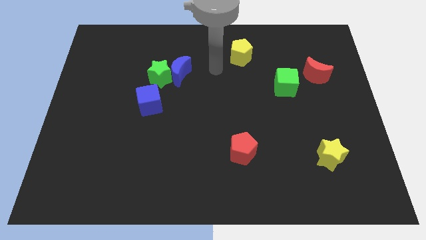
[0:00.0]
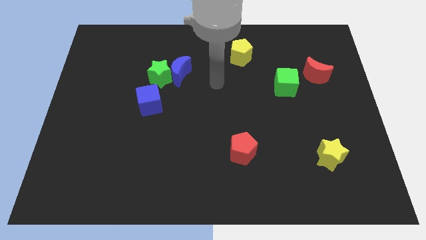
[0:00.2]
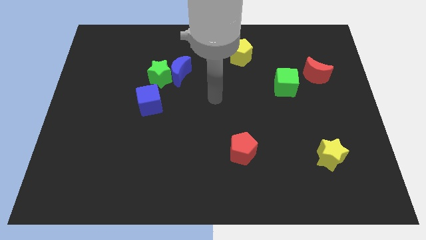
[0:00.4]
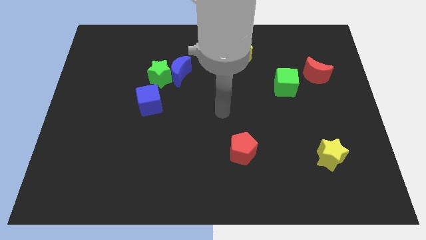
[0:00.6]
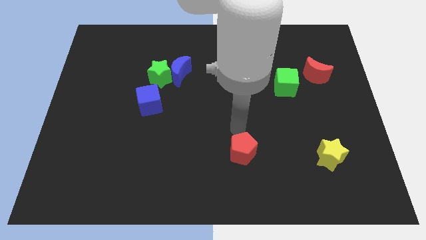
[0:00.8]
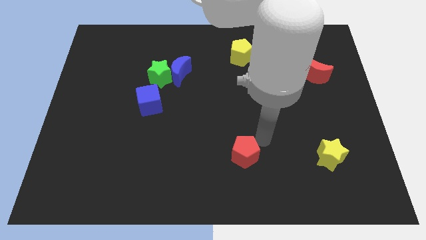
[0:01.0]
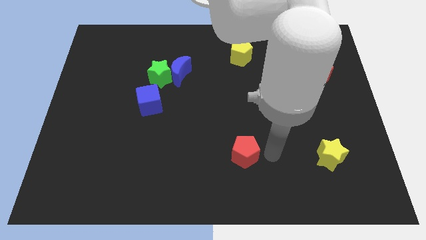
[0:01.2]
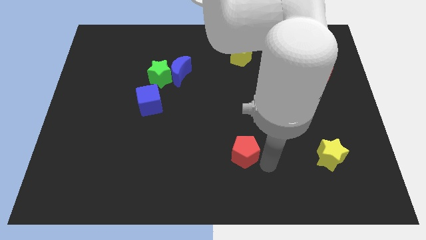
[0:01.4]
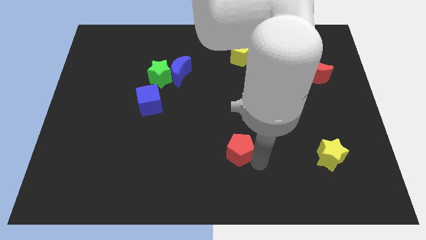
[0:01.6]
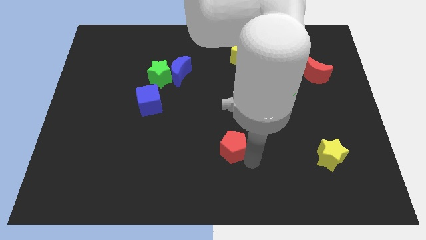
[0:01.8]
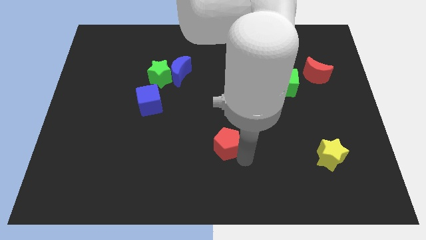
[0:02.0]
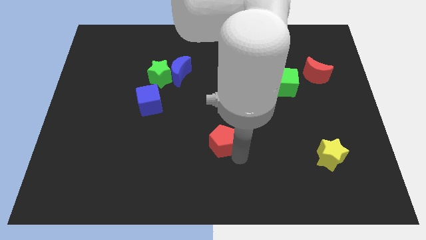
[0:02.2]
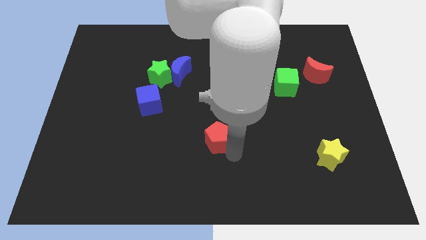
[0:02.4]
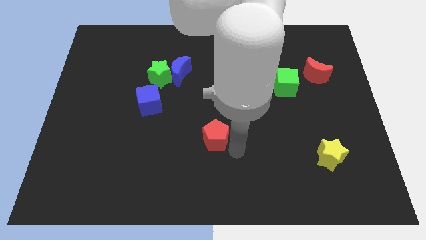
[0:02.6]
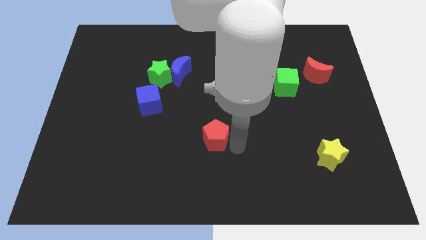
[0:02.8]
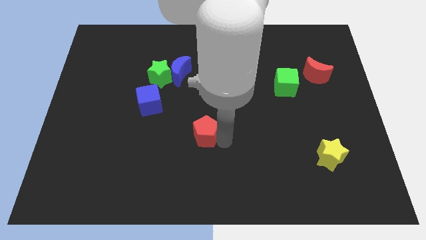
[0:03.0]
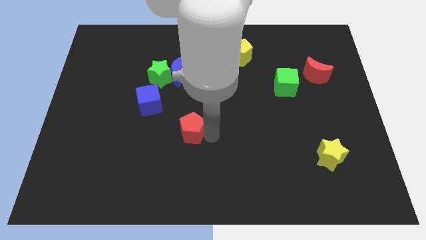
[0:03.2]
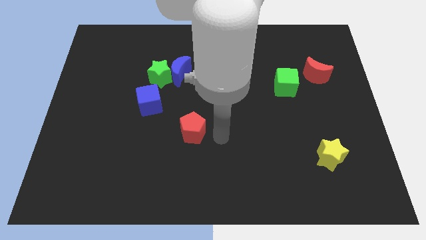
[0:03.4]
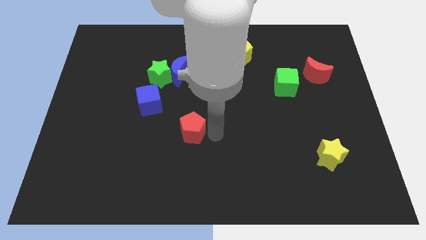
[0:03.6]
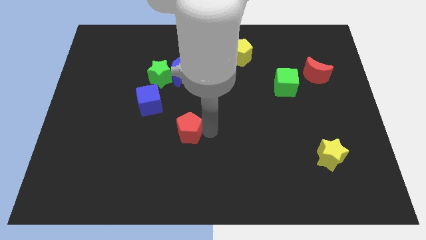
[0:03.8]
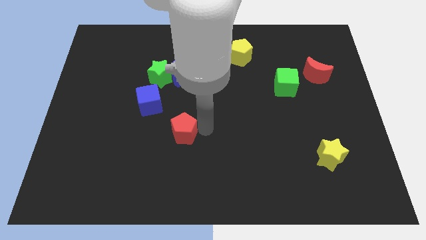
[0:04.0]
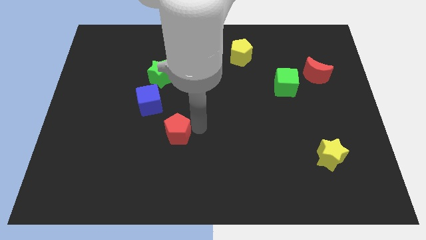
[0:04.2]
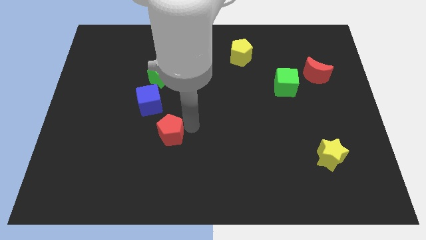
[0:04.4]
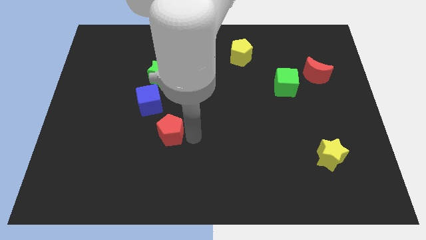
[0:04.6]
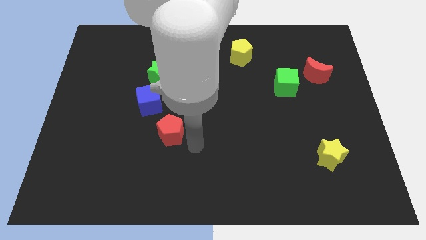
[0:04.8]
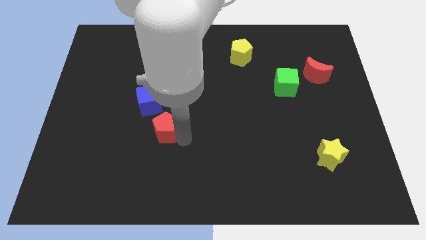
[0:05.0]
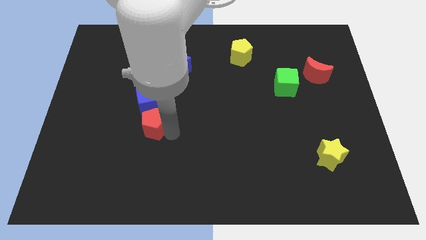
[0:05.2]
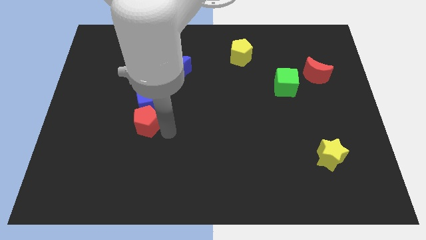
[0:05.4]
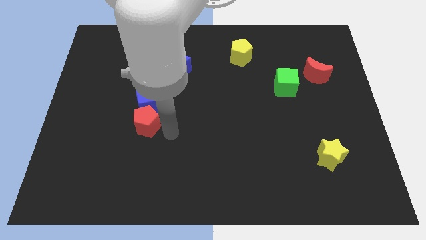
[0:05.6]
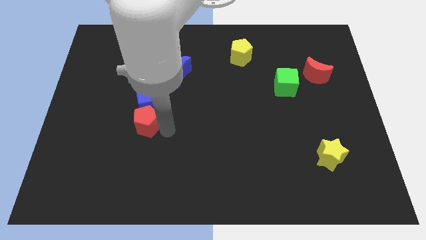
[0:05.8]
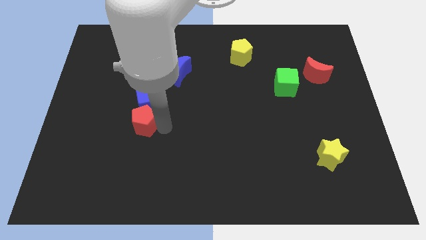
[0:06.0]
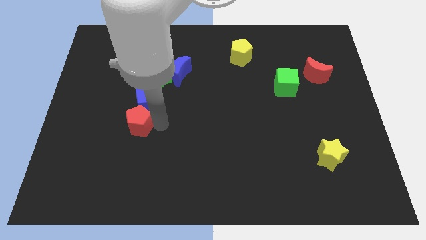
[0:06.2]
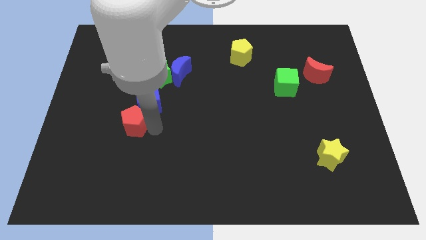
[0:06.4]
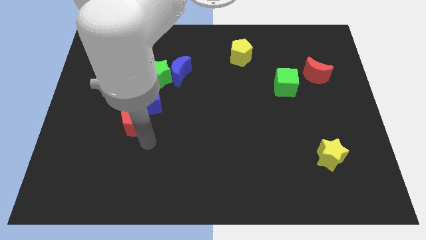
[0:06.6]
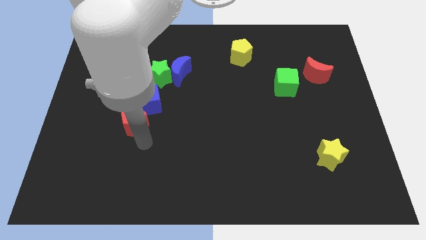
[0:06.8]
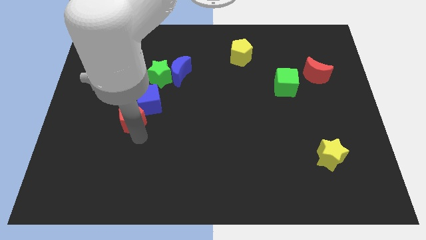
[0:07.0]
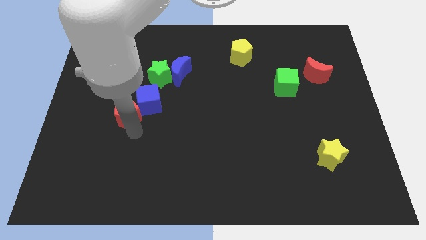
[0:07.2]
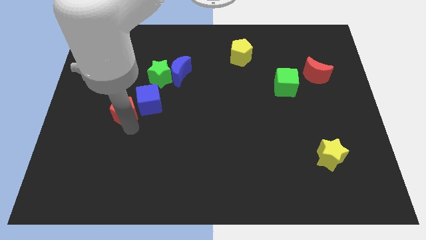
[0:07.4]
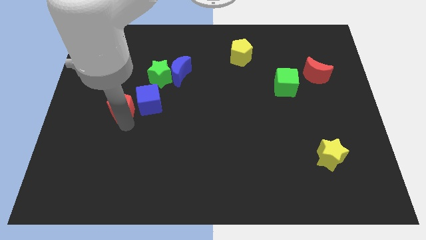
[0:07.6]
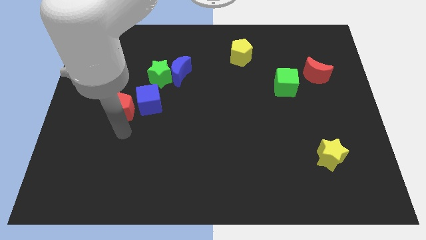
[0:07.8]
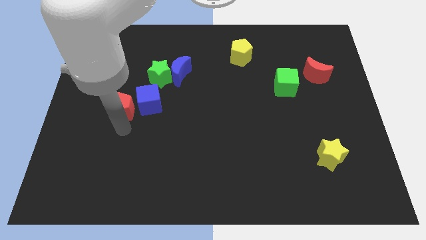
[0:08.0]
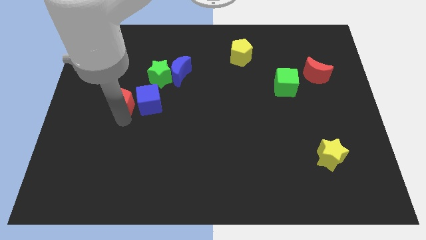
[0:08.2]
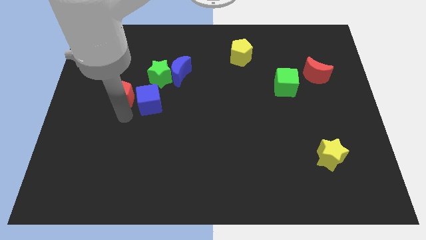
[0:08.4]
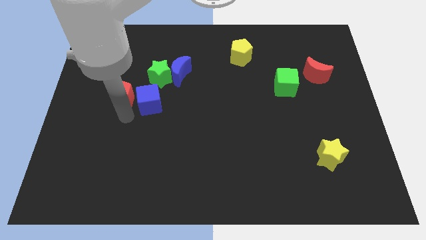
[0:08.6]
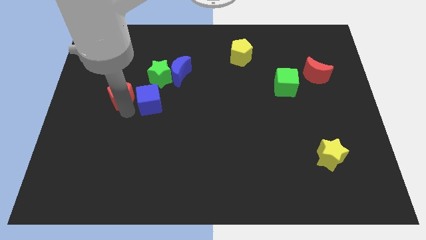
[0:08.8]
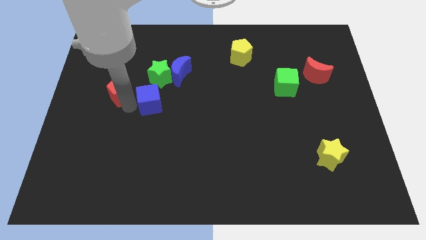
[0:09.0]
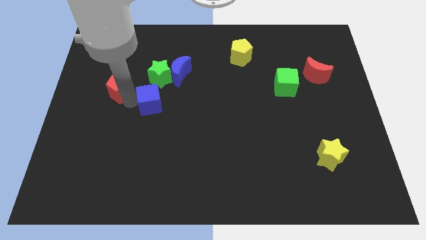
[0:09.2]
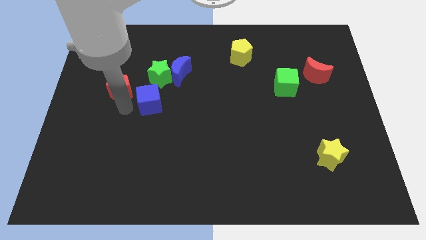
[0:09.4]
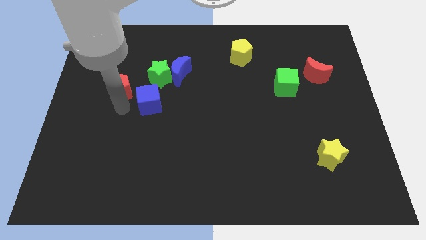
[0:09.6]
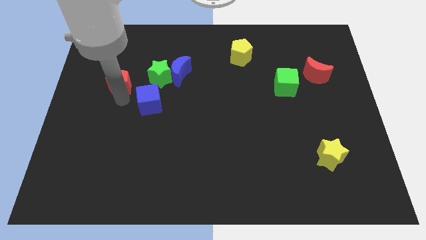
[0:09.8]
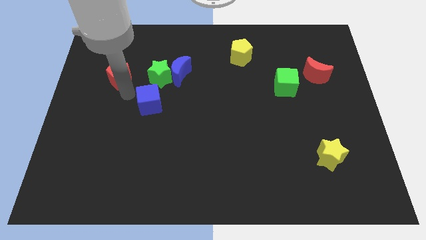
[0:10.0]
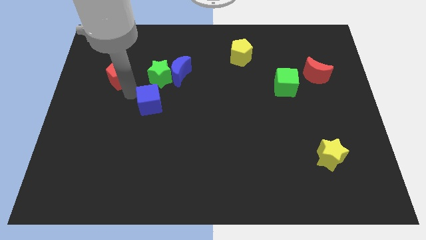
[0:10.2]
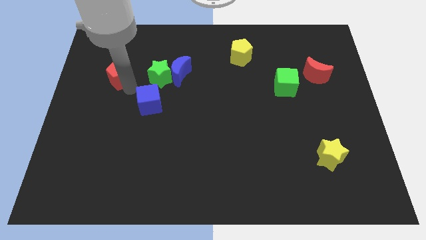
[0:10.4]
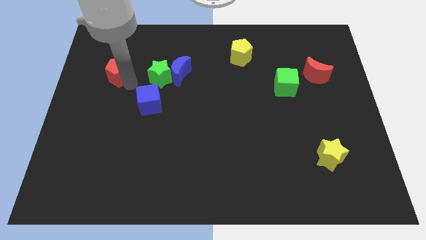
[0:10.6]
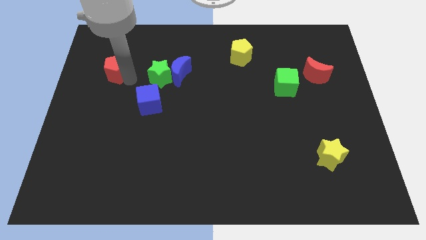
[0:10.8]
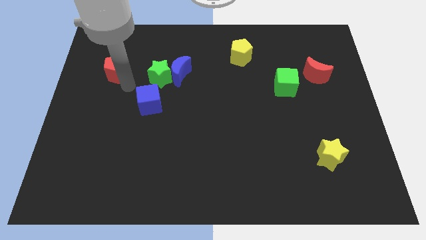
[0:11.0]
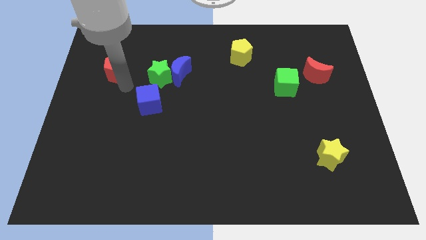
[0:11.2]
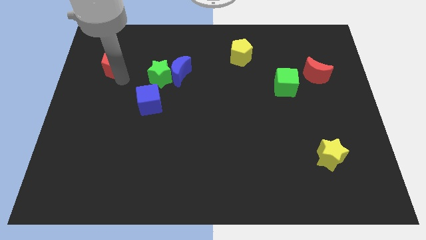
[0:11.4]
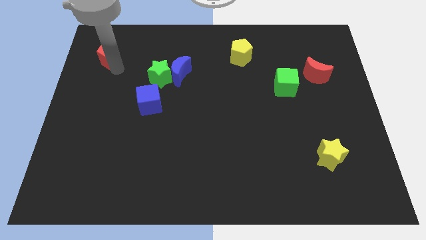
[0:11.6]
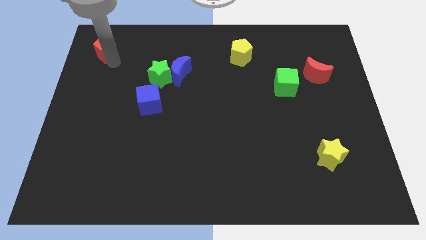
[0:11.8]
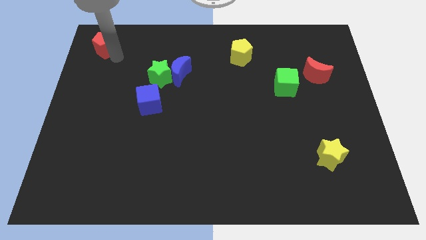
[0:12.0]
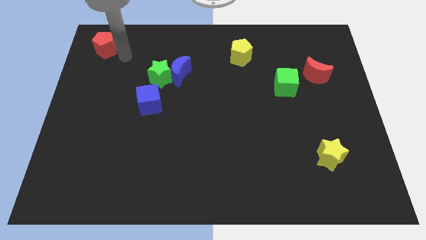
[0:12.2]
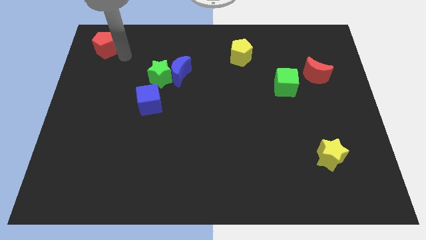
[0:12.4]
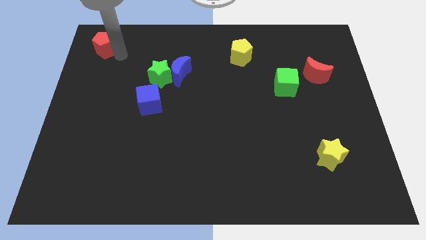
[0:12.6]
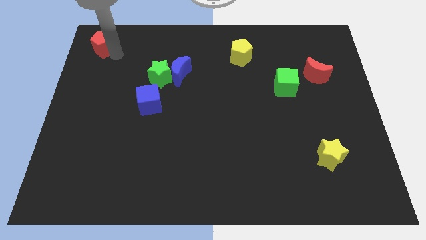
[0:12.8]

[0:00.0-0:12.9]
put the red pentagon to the top left of the board
